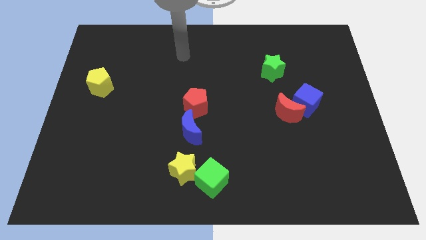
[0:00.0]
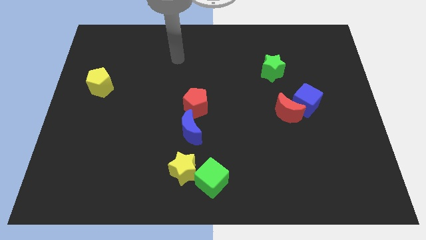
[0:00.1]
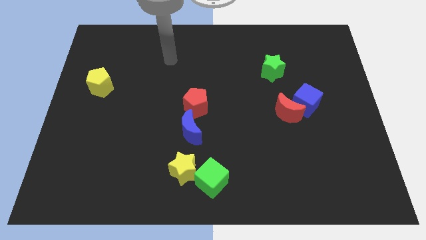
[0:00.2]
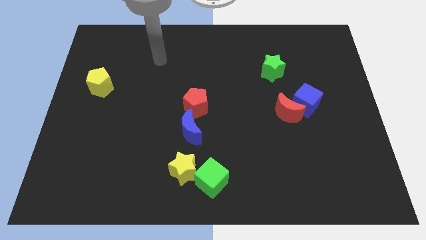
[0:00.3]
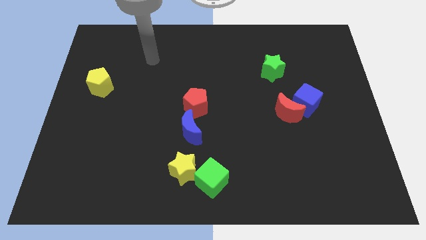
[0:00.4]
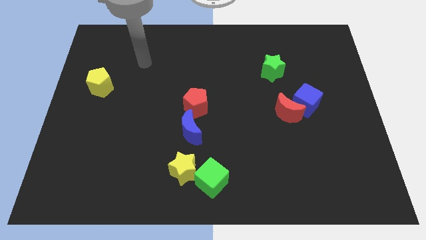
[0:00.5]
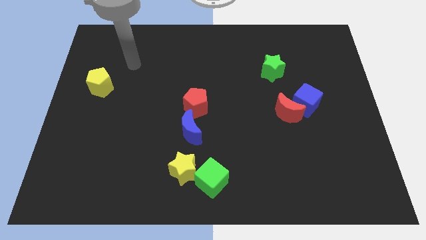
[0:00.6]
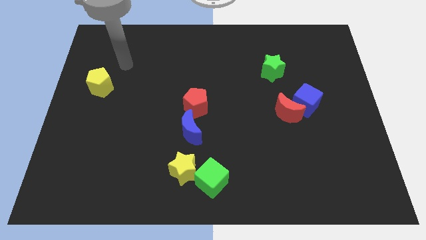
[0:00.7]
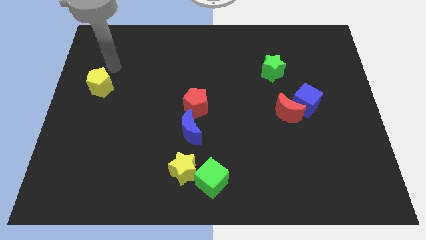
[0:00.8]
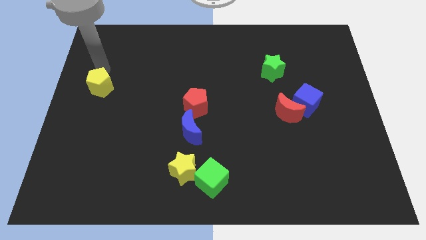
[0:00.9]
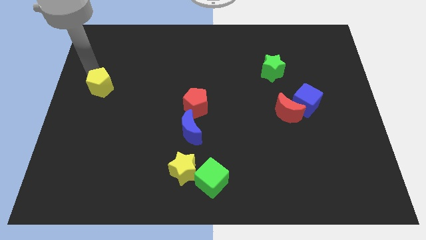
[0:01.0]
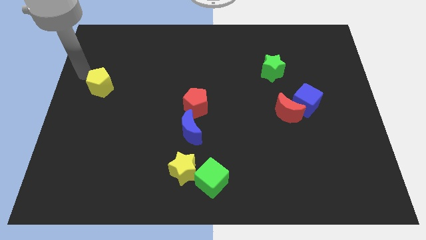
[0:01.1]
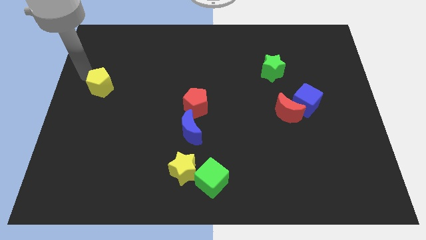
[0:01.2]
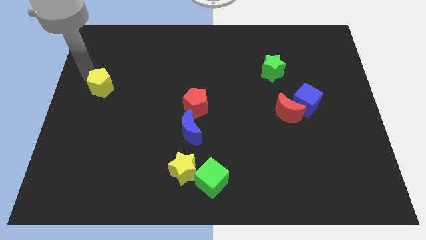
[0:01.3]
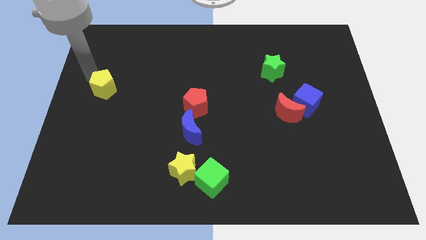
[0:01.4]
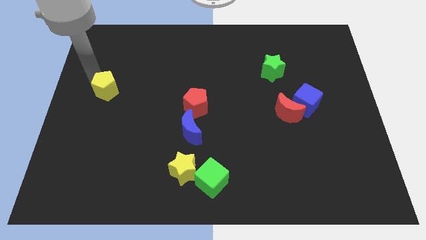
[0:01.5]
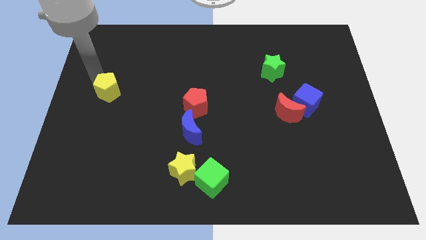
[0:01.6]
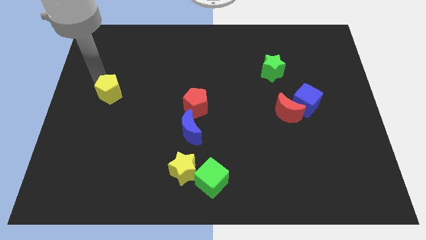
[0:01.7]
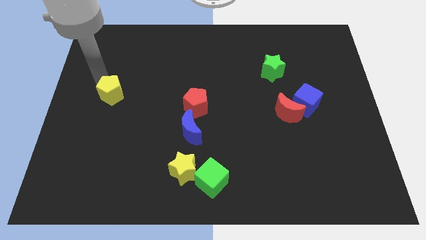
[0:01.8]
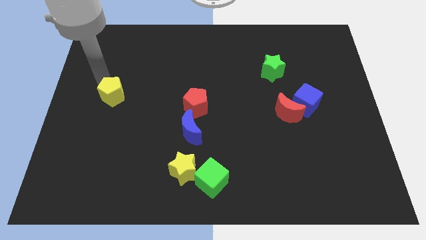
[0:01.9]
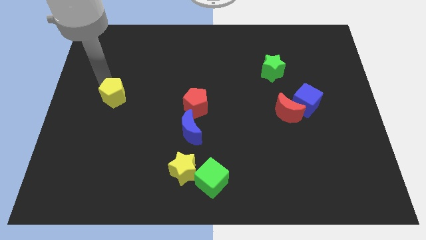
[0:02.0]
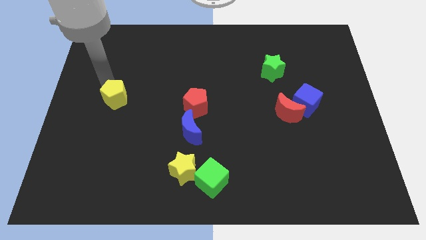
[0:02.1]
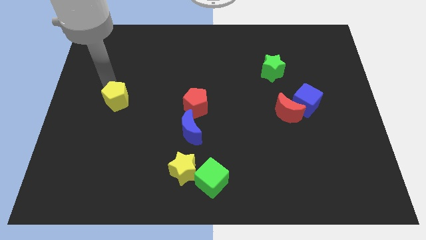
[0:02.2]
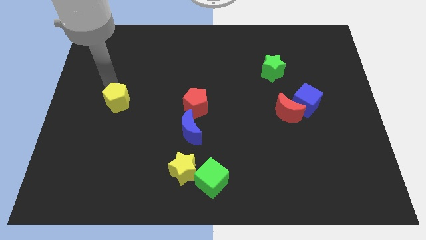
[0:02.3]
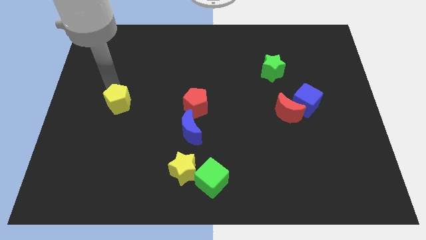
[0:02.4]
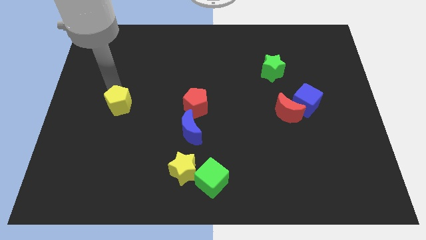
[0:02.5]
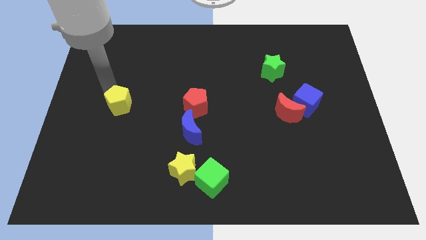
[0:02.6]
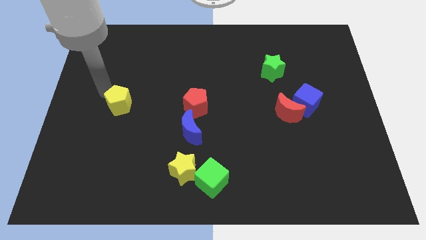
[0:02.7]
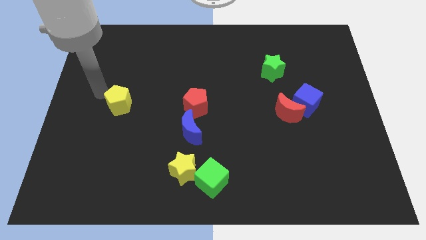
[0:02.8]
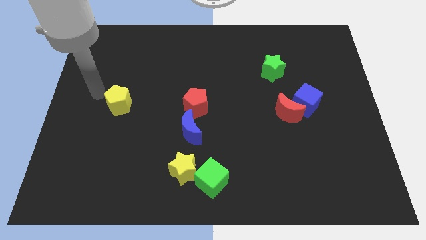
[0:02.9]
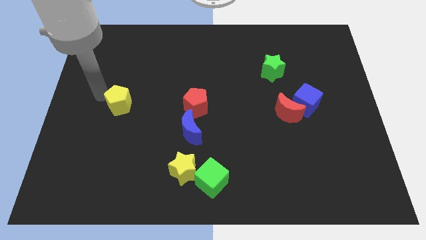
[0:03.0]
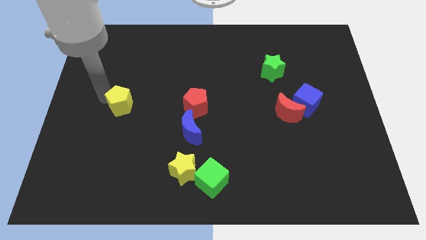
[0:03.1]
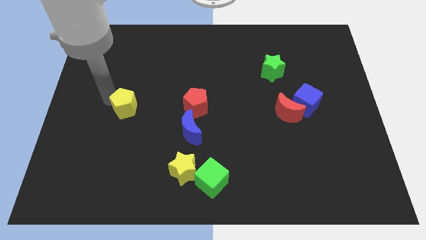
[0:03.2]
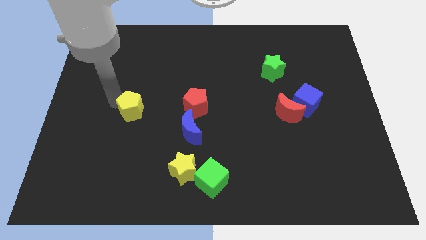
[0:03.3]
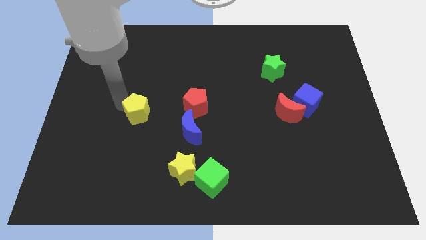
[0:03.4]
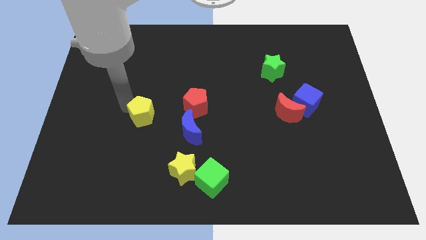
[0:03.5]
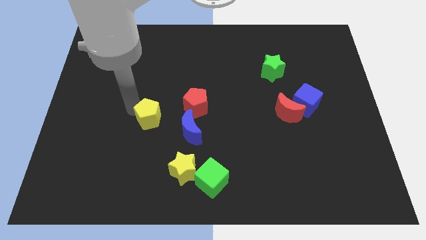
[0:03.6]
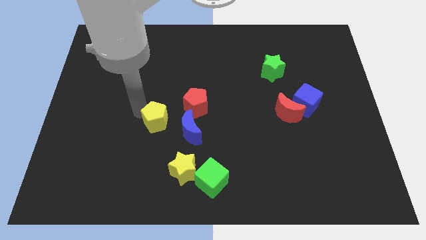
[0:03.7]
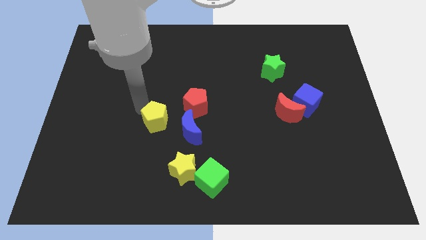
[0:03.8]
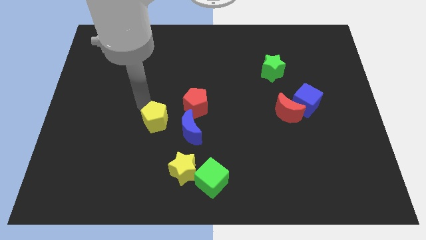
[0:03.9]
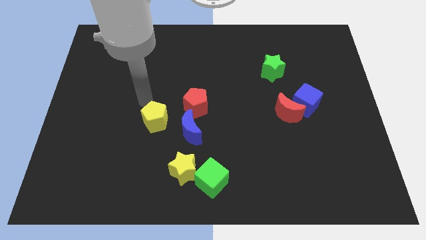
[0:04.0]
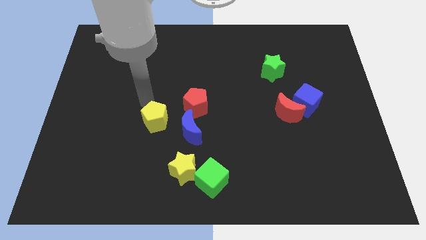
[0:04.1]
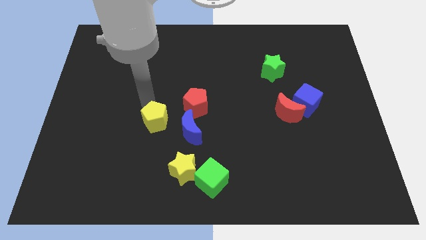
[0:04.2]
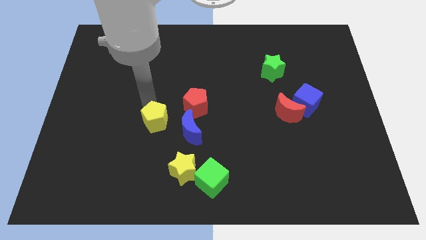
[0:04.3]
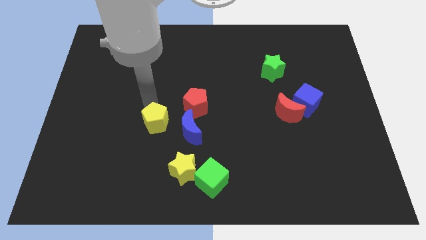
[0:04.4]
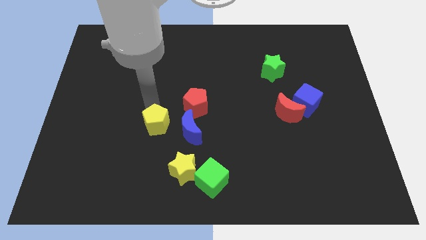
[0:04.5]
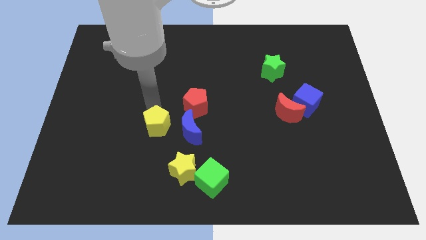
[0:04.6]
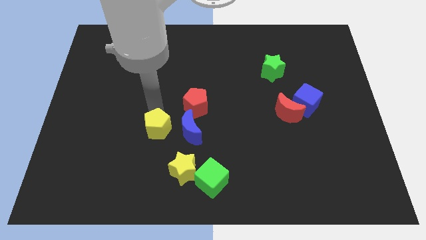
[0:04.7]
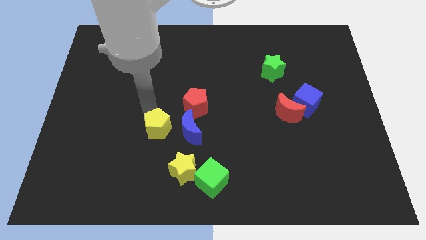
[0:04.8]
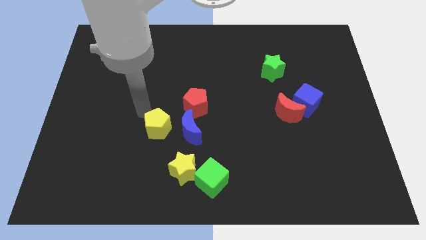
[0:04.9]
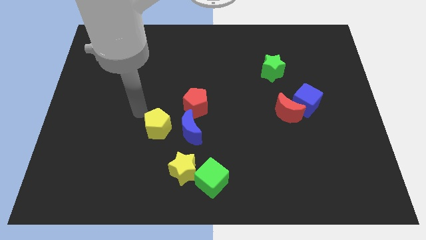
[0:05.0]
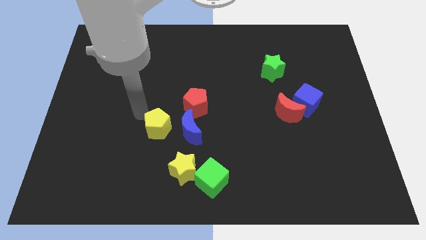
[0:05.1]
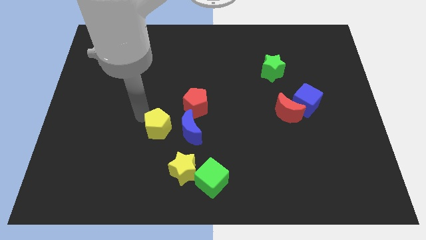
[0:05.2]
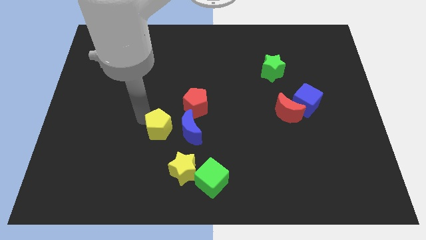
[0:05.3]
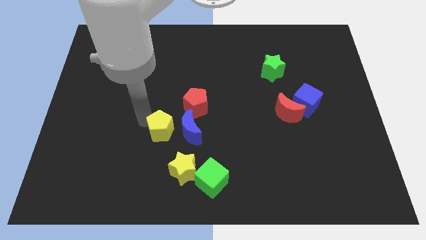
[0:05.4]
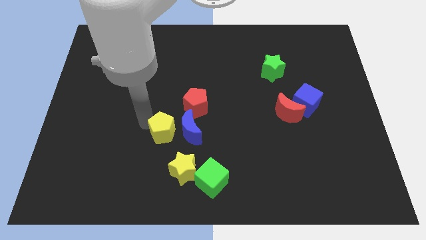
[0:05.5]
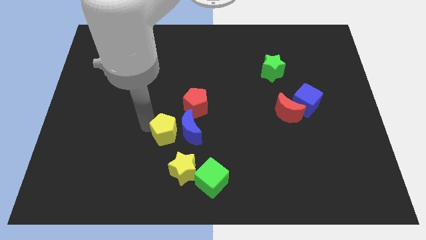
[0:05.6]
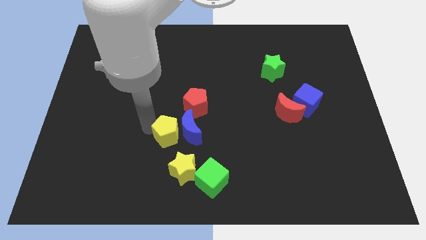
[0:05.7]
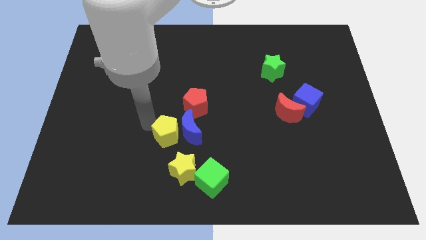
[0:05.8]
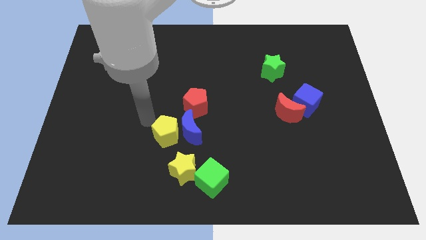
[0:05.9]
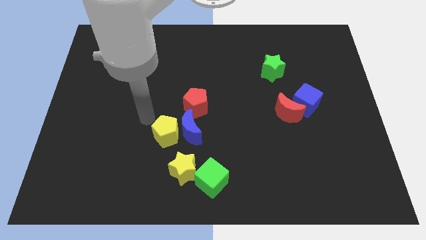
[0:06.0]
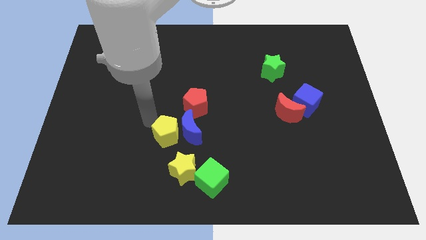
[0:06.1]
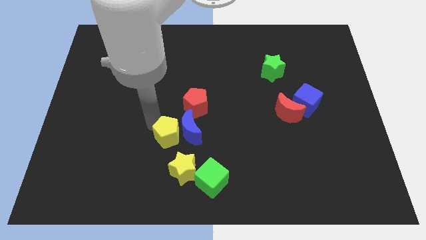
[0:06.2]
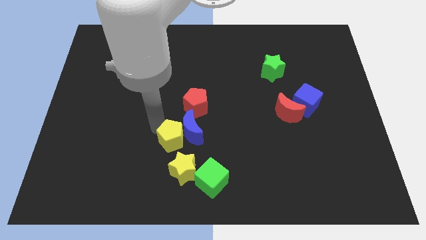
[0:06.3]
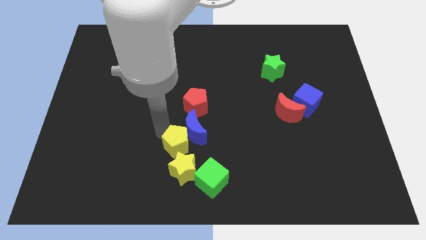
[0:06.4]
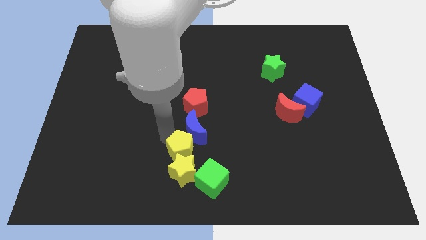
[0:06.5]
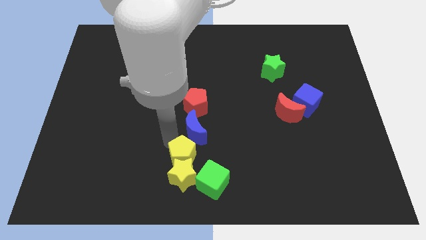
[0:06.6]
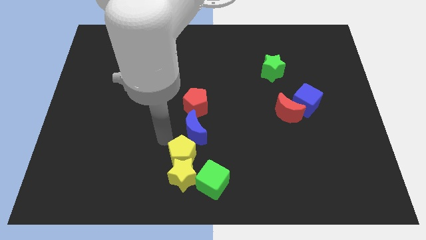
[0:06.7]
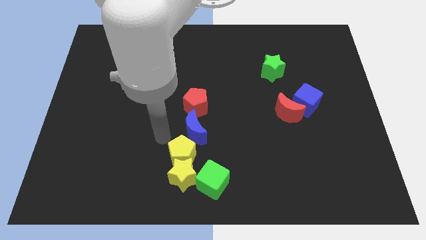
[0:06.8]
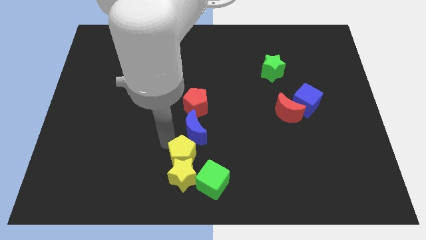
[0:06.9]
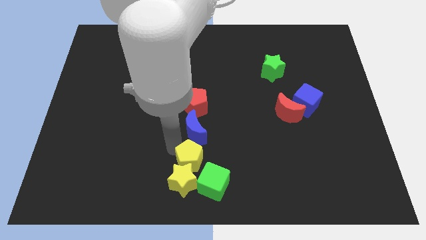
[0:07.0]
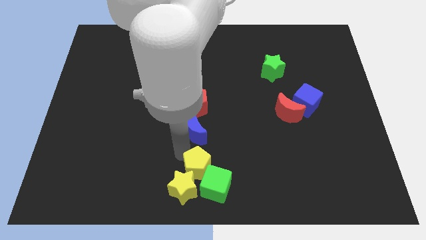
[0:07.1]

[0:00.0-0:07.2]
move the yellow pentagon next to the green cube
